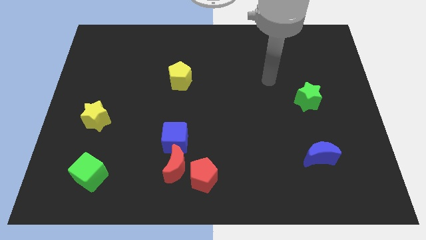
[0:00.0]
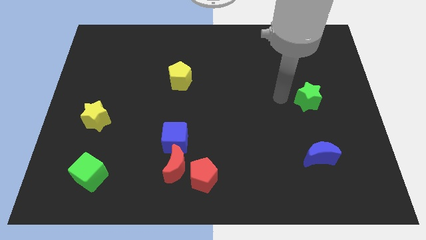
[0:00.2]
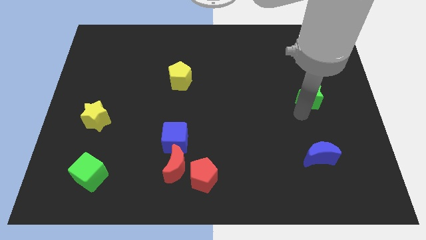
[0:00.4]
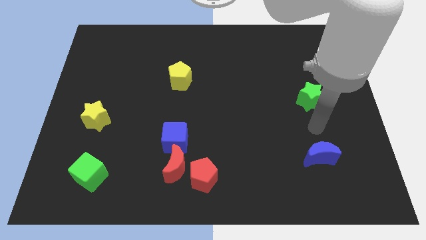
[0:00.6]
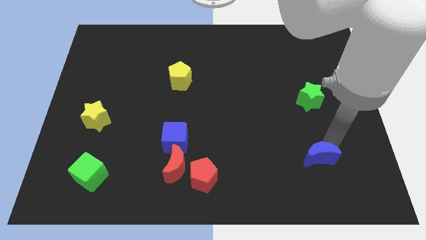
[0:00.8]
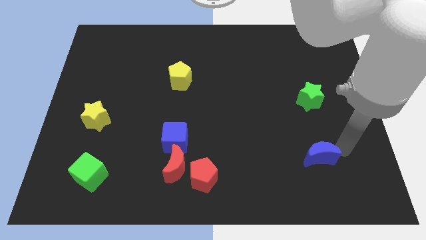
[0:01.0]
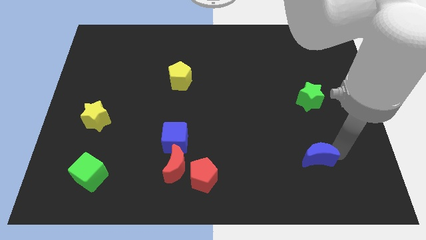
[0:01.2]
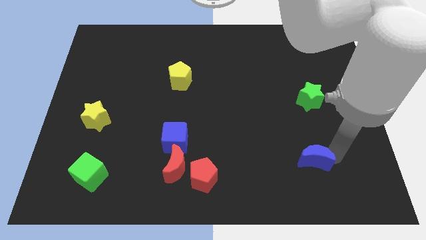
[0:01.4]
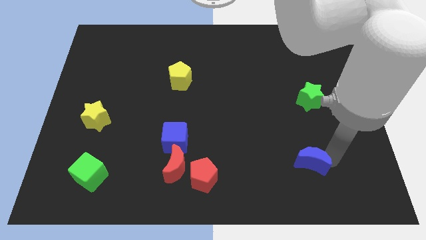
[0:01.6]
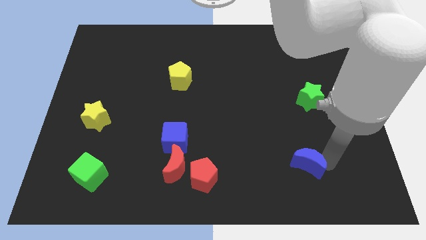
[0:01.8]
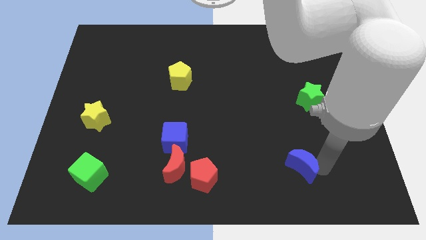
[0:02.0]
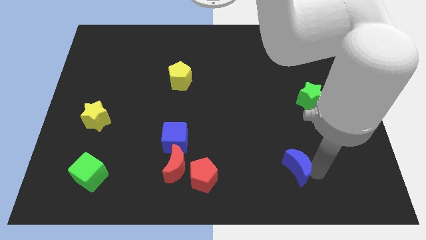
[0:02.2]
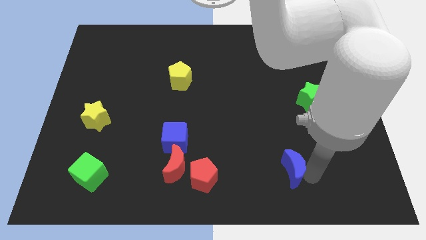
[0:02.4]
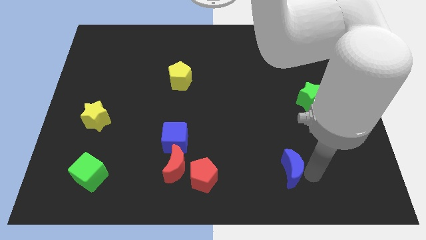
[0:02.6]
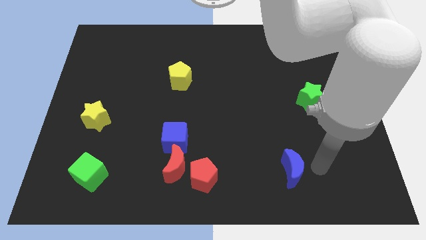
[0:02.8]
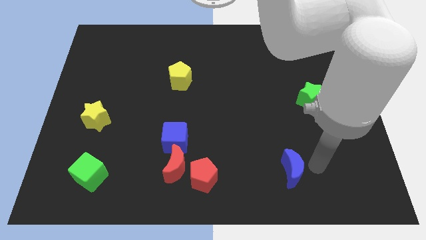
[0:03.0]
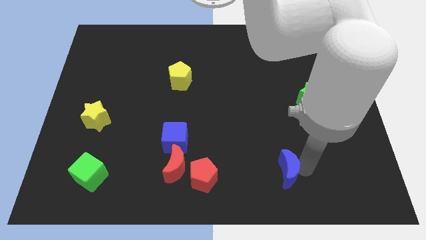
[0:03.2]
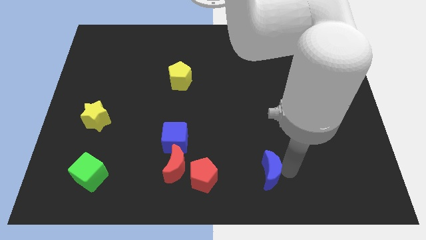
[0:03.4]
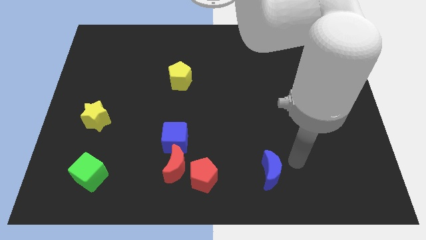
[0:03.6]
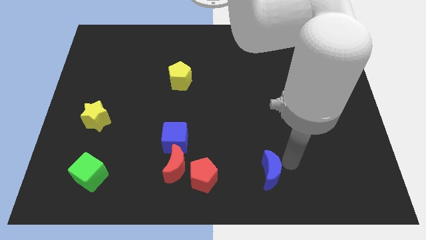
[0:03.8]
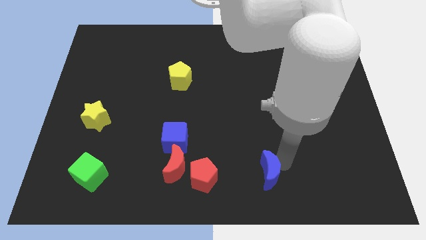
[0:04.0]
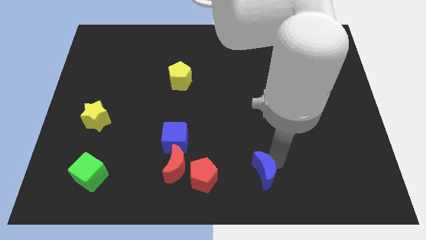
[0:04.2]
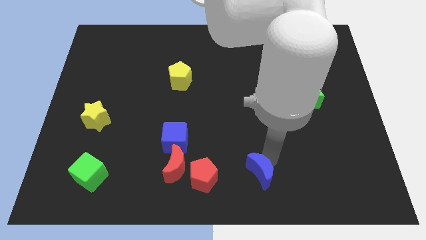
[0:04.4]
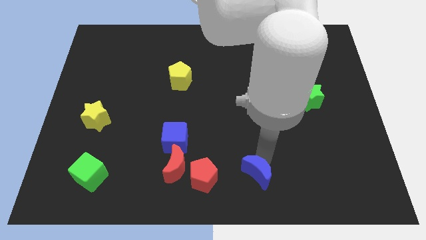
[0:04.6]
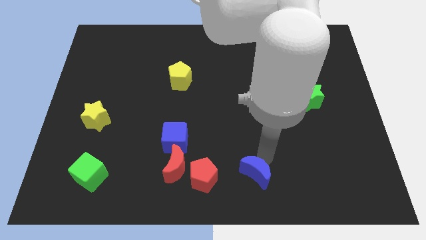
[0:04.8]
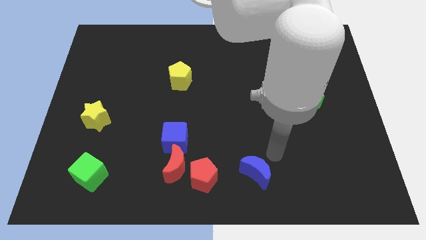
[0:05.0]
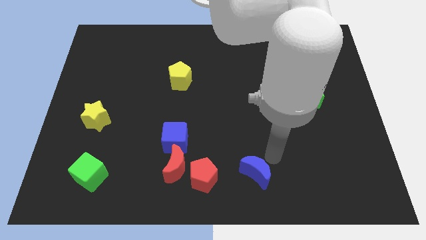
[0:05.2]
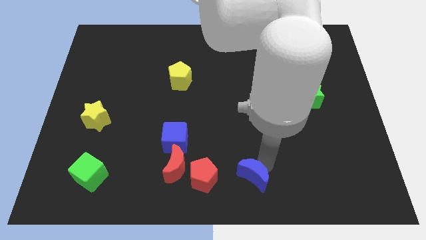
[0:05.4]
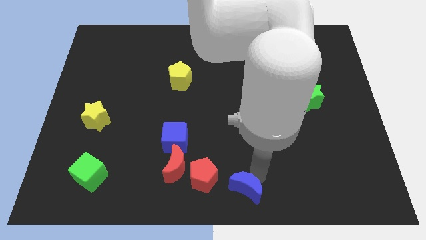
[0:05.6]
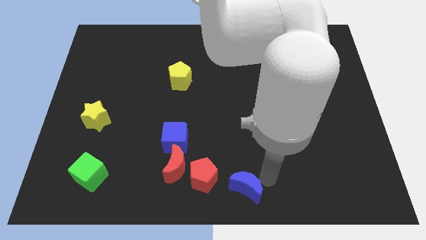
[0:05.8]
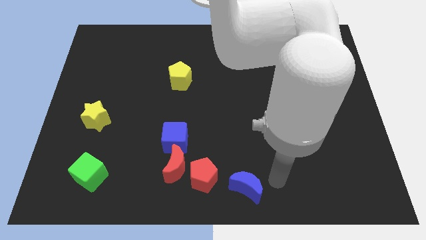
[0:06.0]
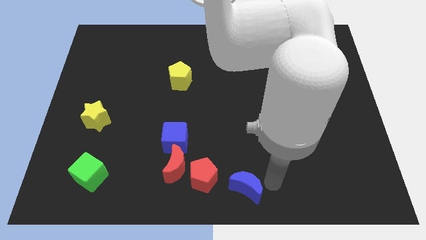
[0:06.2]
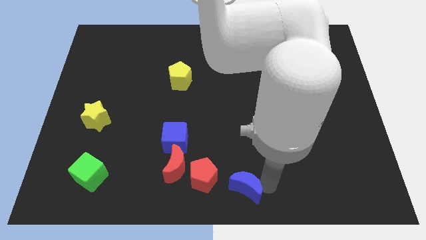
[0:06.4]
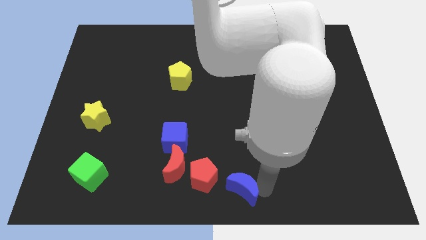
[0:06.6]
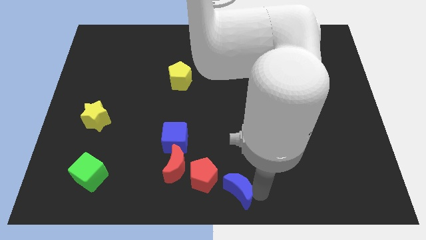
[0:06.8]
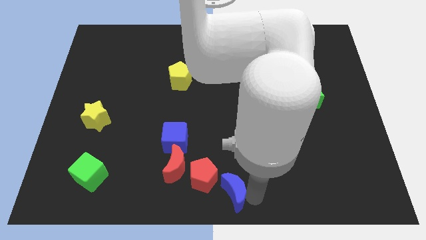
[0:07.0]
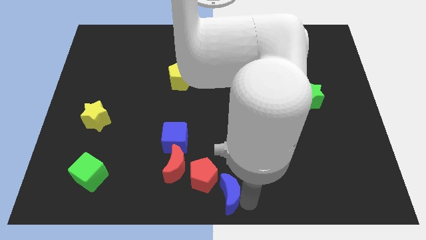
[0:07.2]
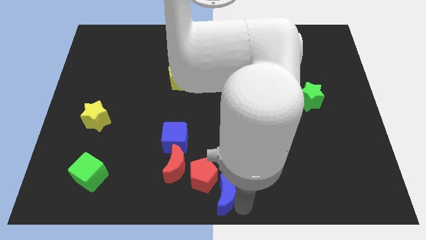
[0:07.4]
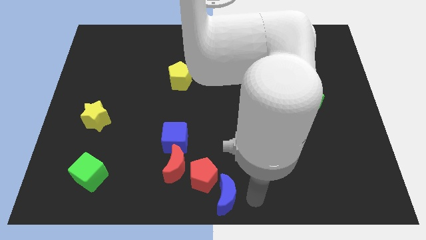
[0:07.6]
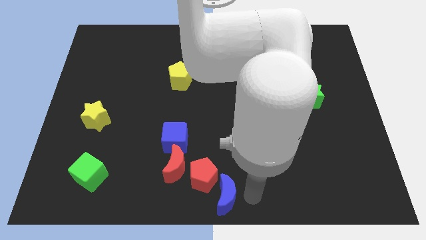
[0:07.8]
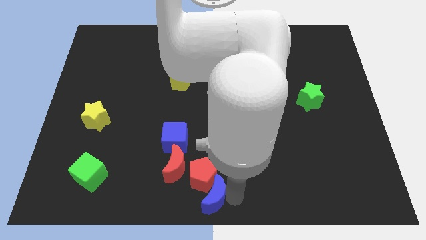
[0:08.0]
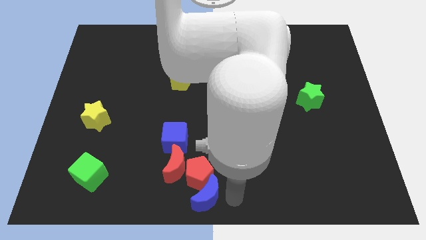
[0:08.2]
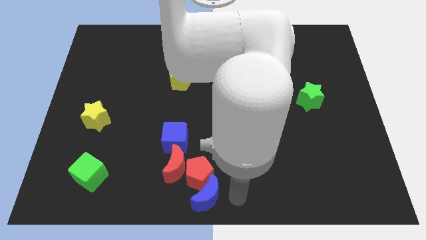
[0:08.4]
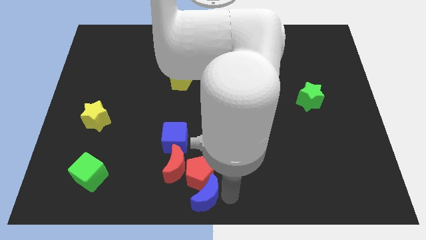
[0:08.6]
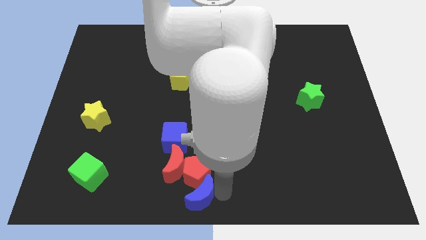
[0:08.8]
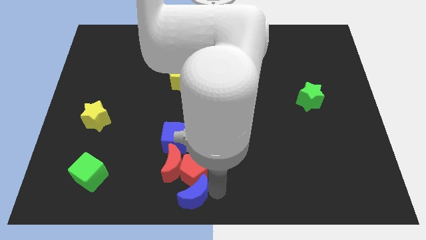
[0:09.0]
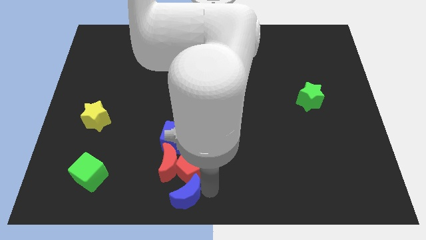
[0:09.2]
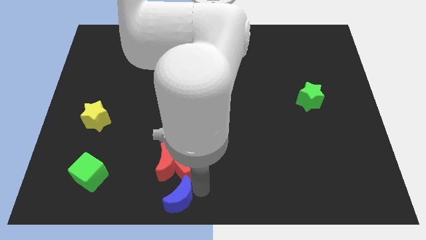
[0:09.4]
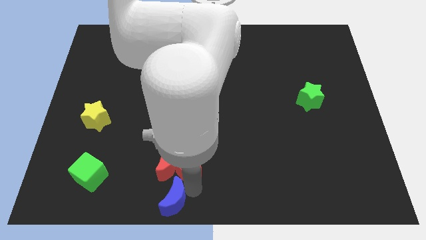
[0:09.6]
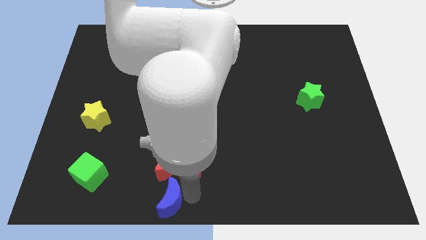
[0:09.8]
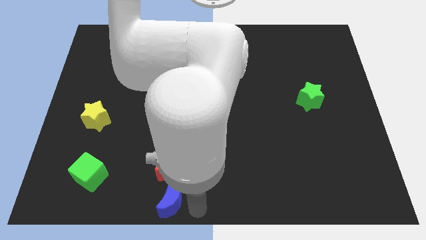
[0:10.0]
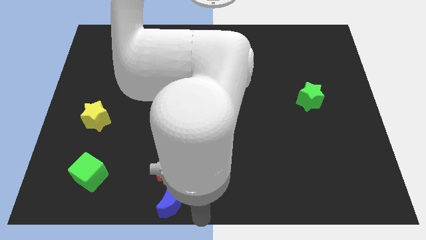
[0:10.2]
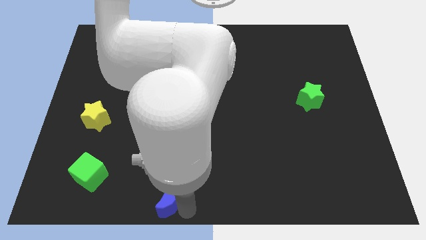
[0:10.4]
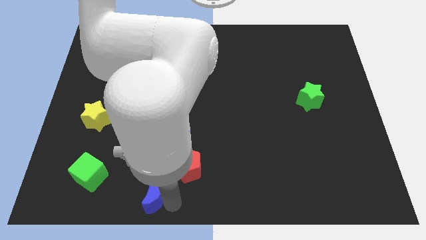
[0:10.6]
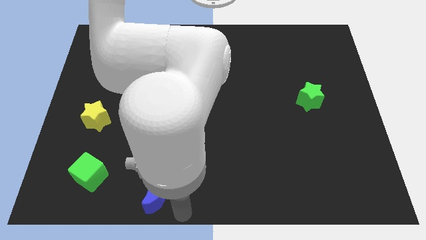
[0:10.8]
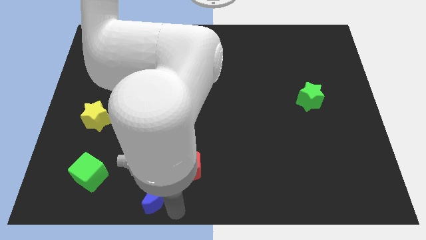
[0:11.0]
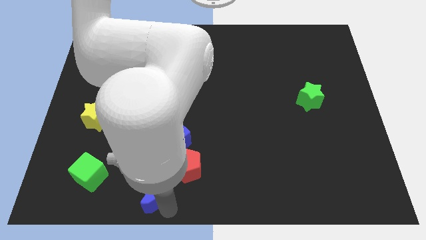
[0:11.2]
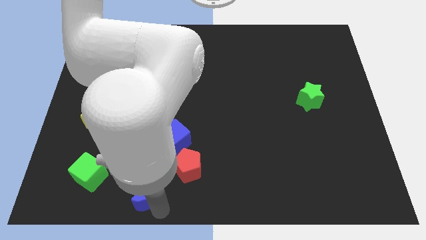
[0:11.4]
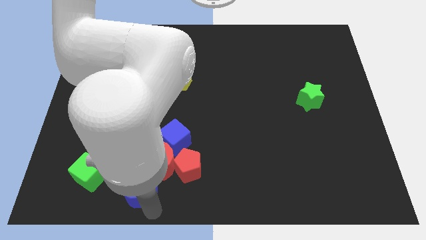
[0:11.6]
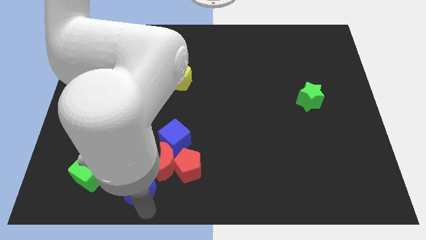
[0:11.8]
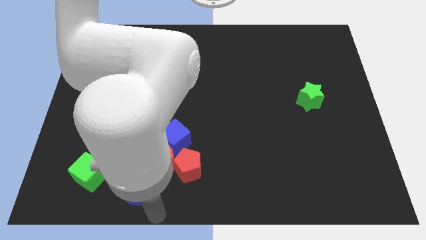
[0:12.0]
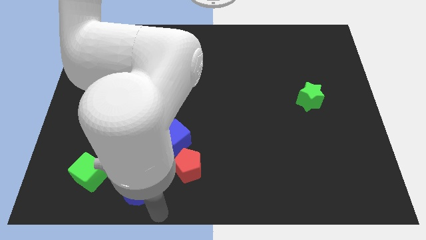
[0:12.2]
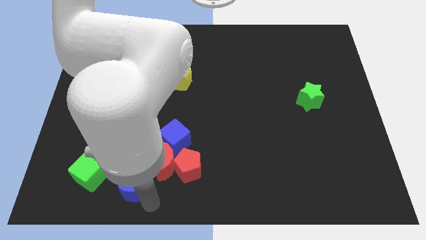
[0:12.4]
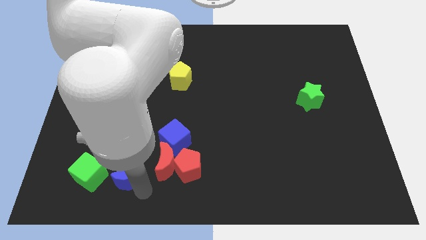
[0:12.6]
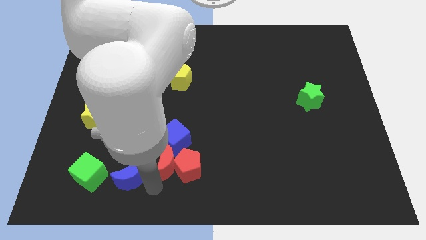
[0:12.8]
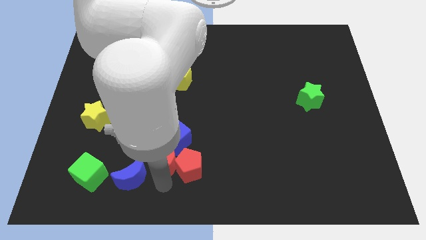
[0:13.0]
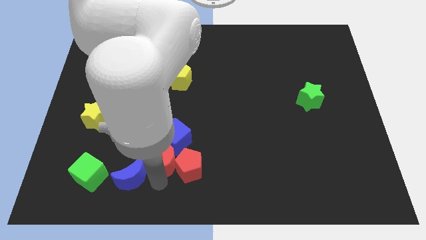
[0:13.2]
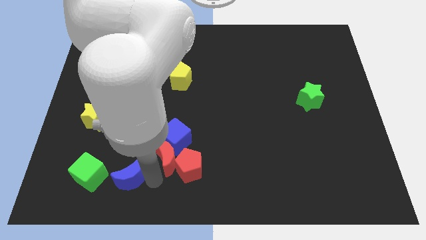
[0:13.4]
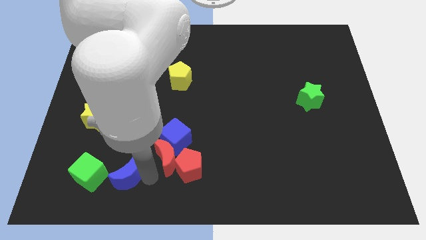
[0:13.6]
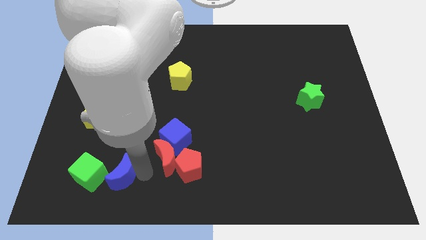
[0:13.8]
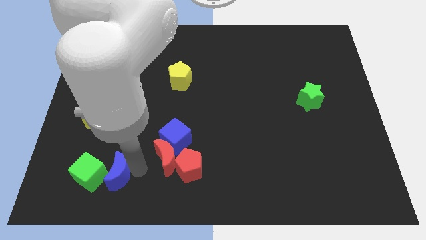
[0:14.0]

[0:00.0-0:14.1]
slide the blue moon towards the green cube

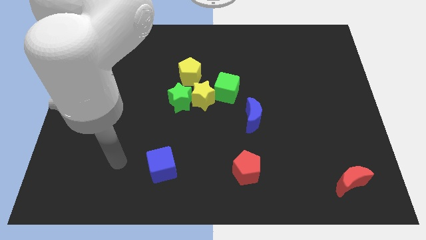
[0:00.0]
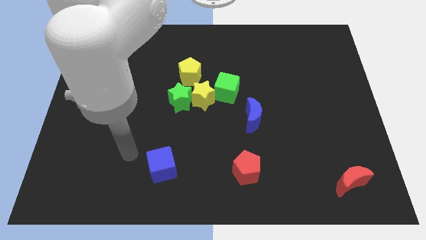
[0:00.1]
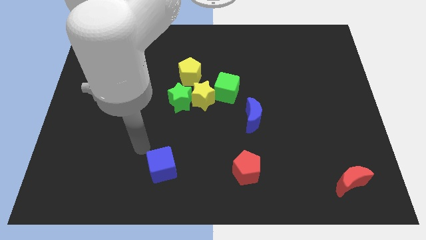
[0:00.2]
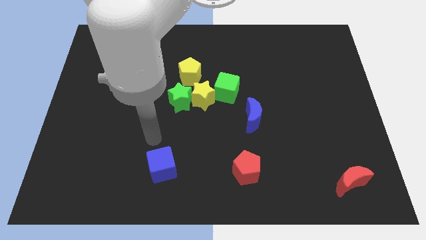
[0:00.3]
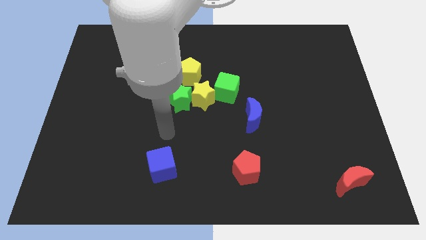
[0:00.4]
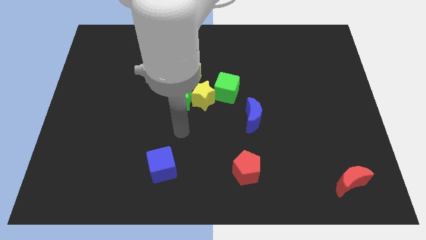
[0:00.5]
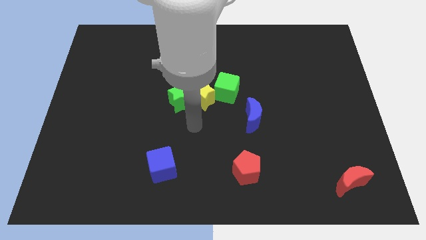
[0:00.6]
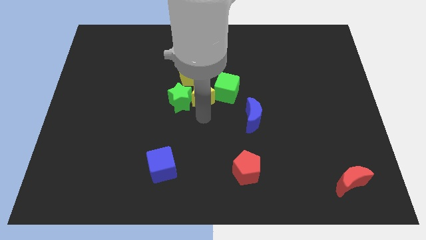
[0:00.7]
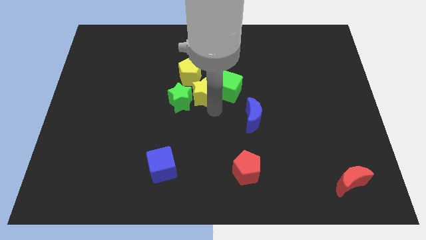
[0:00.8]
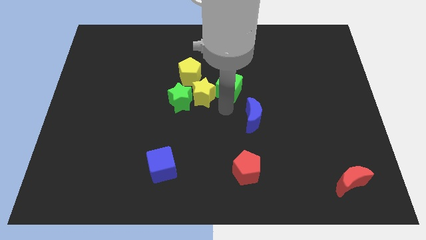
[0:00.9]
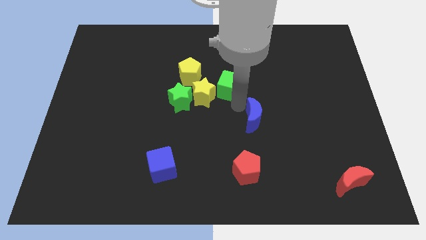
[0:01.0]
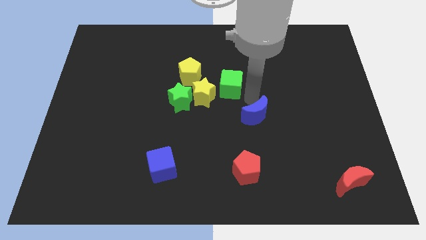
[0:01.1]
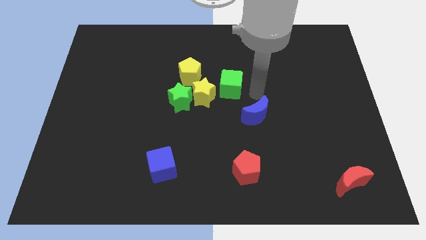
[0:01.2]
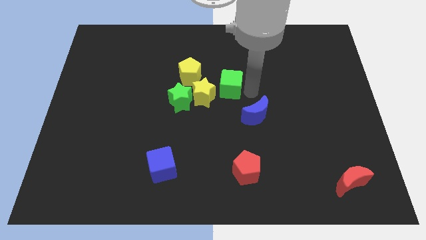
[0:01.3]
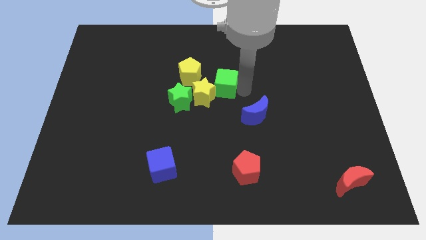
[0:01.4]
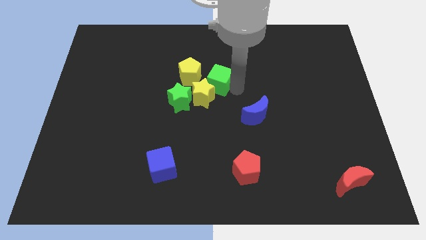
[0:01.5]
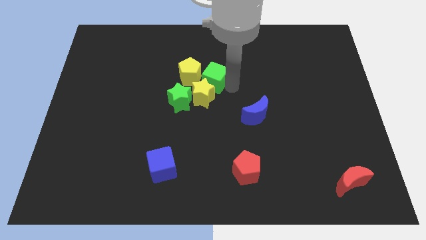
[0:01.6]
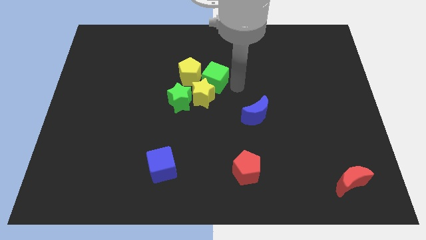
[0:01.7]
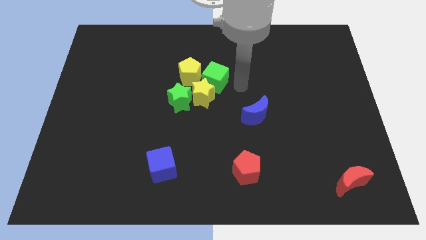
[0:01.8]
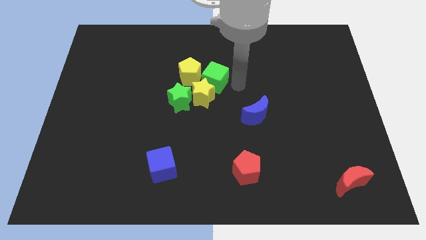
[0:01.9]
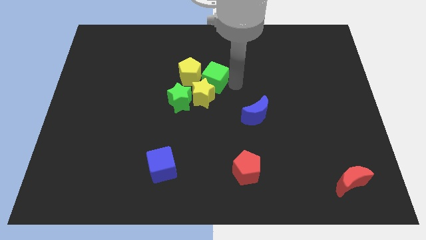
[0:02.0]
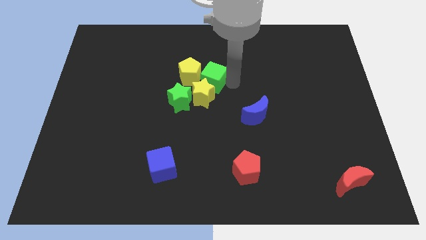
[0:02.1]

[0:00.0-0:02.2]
move the green cube towards the yellow pentagon
